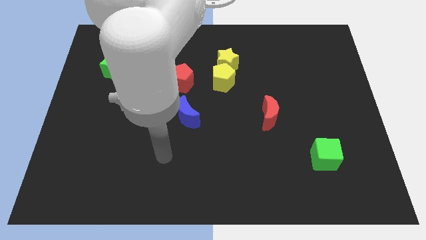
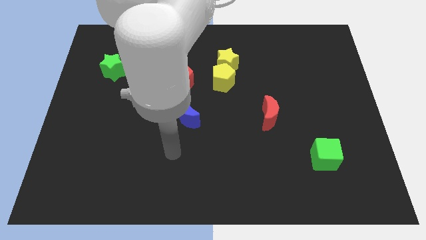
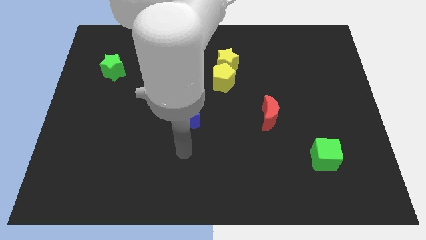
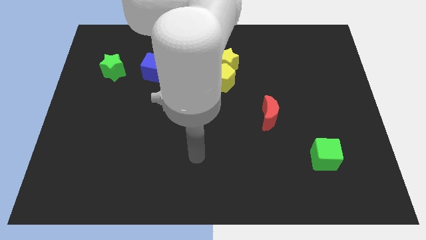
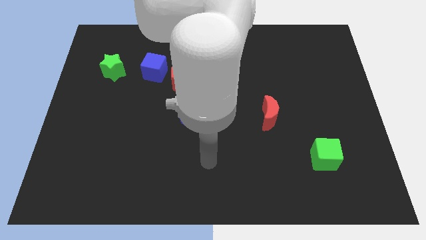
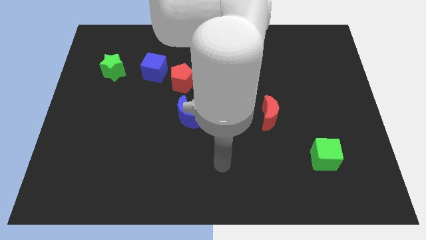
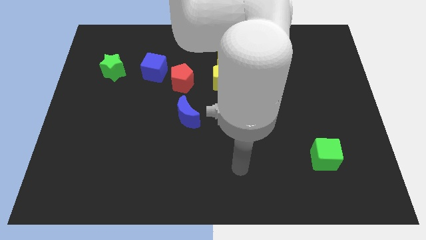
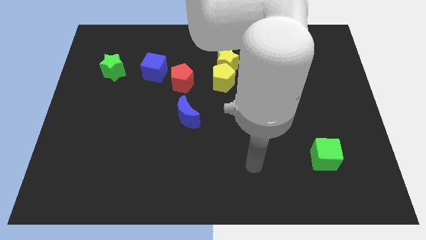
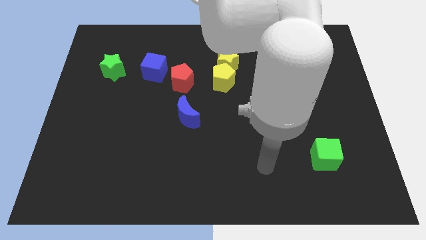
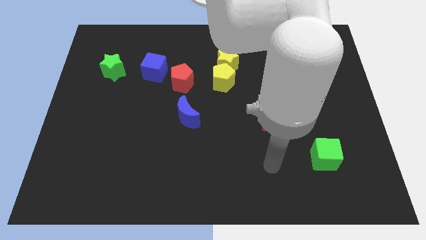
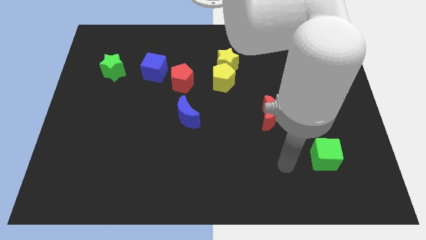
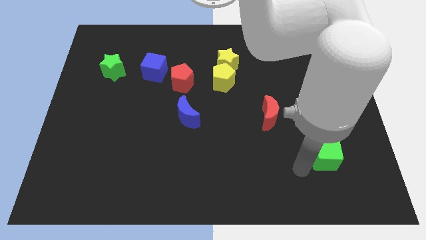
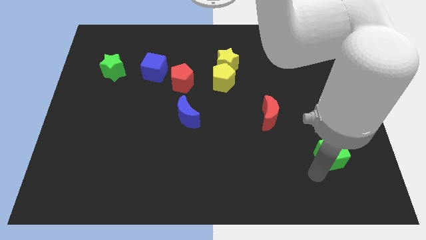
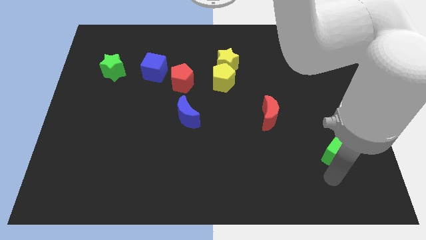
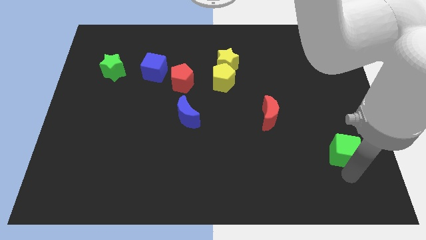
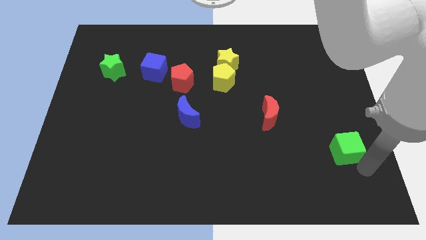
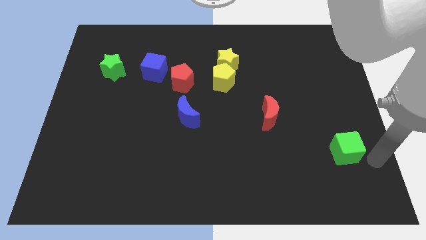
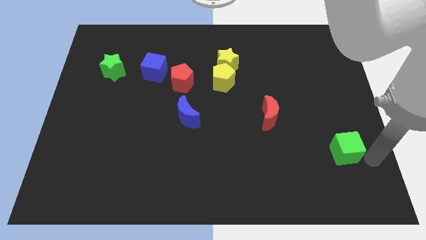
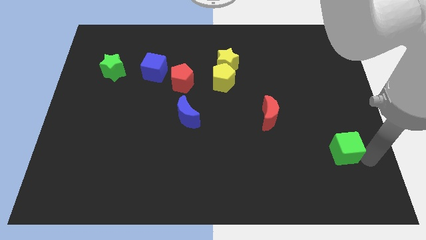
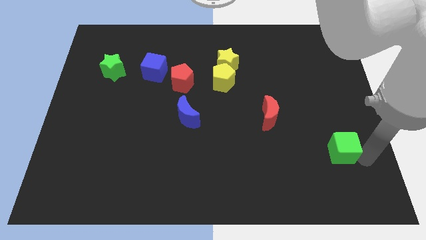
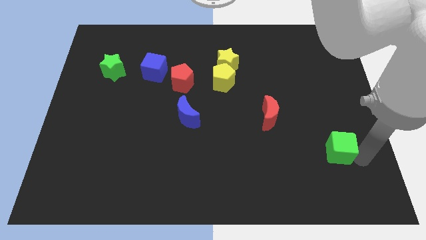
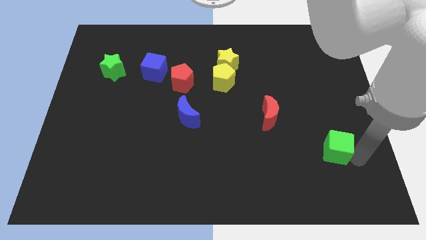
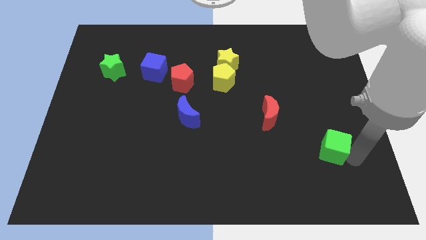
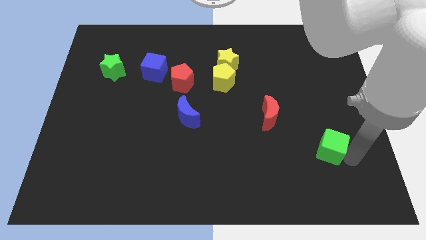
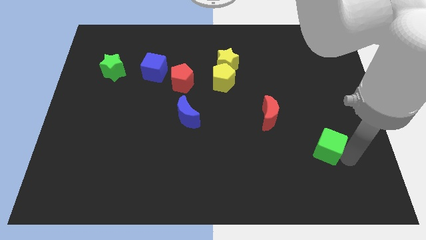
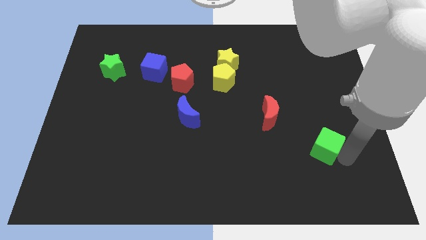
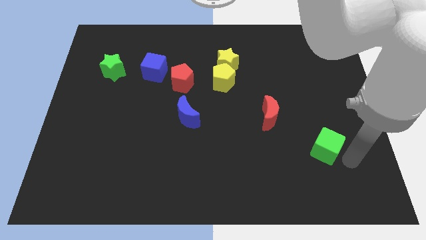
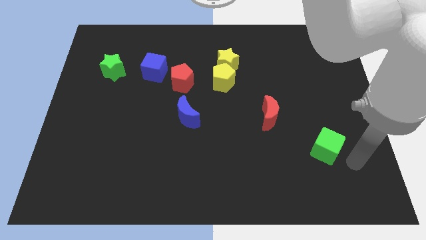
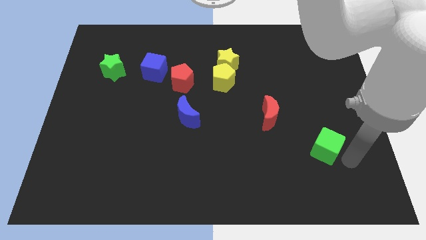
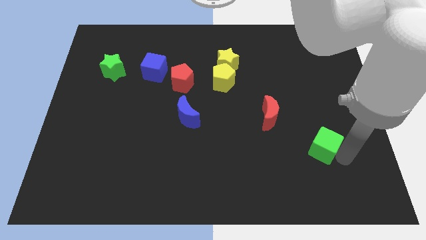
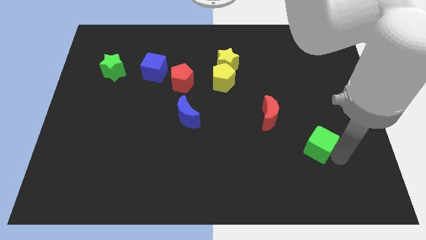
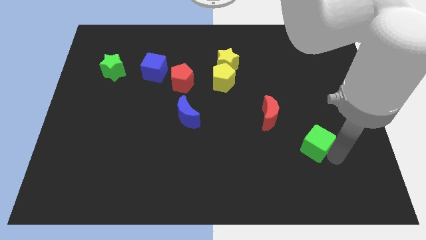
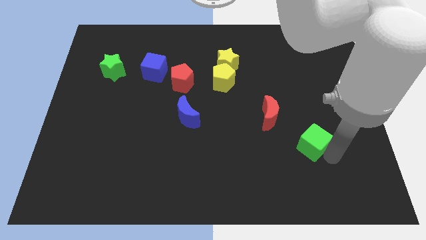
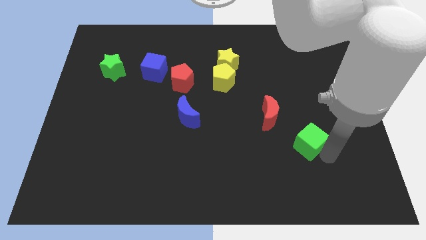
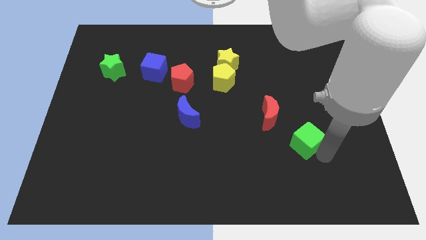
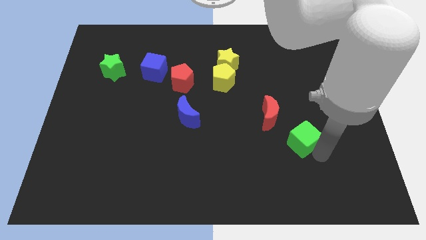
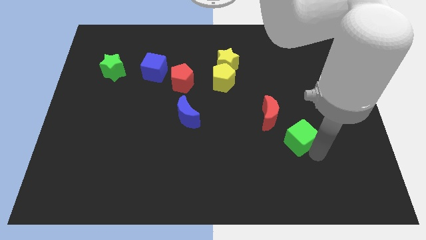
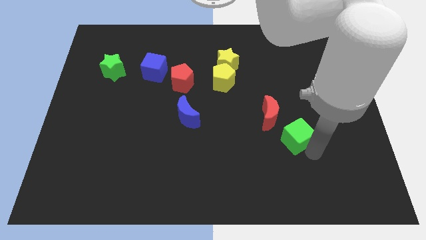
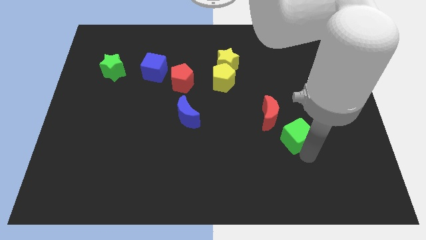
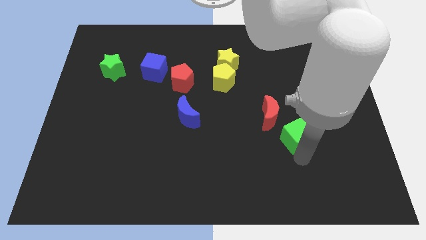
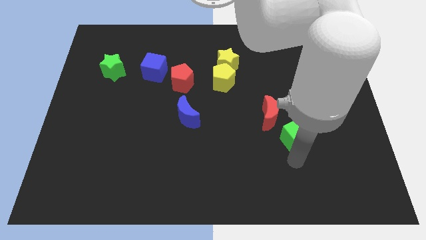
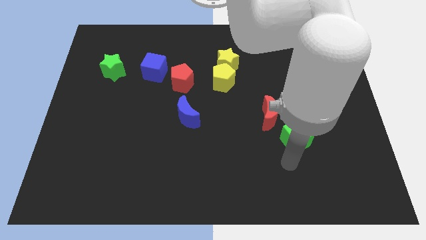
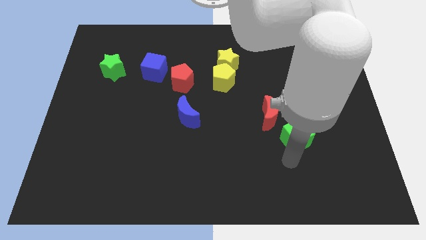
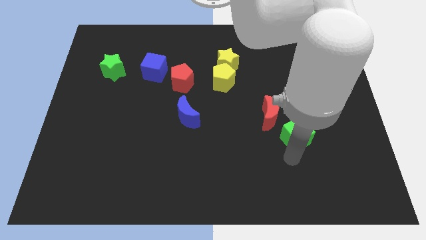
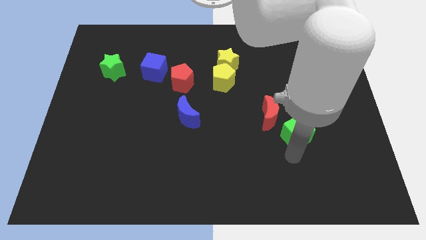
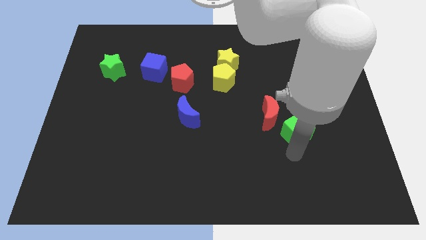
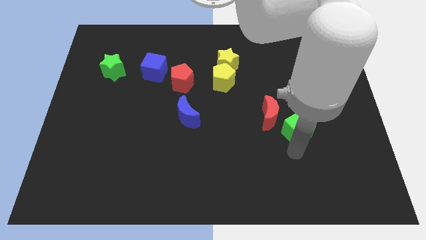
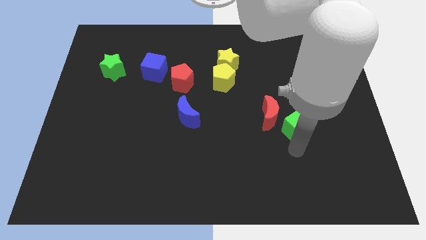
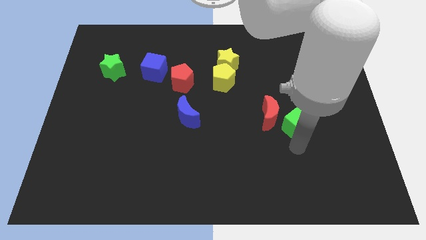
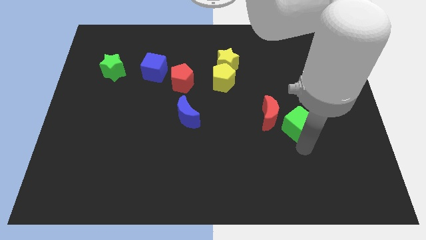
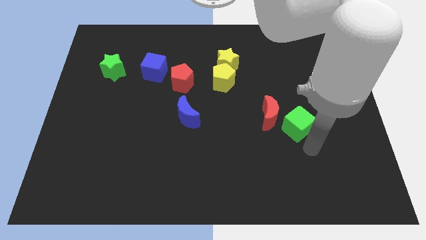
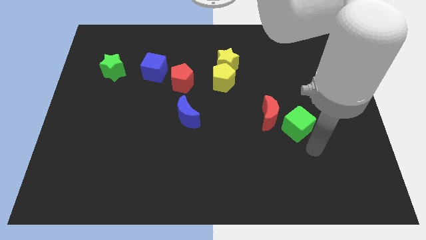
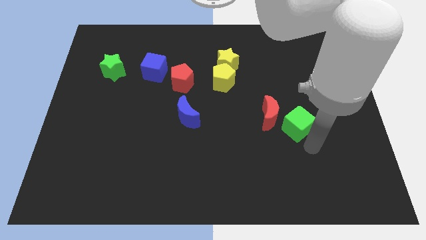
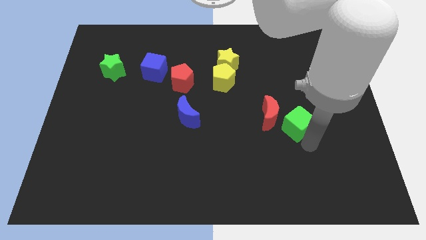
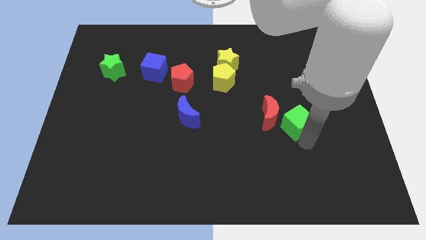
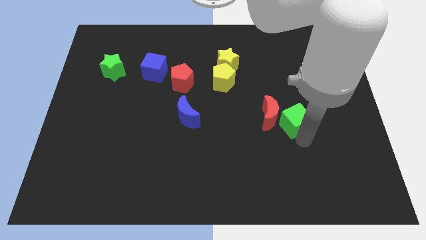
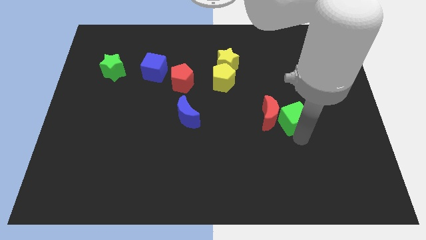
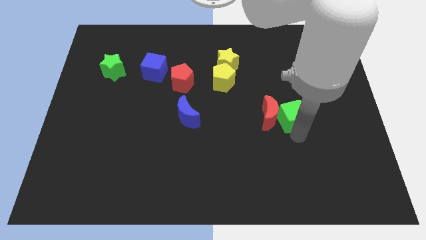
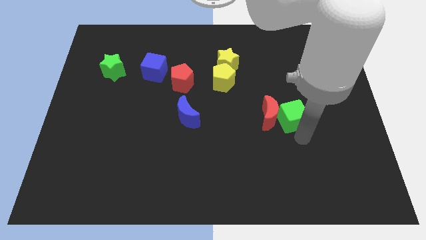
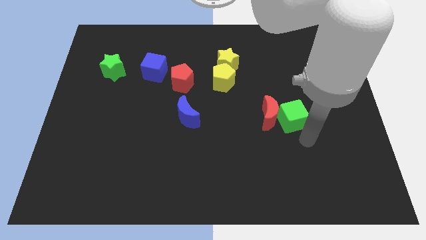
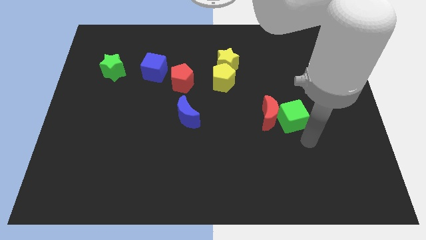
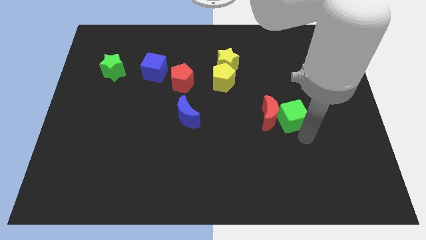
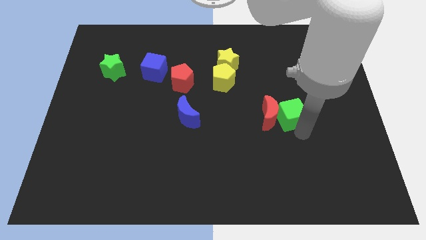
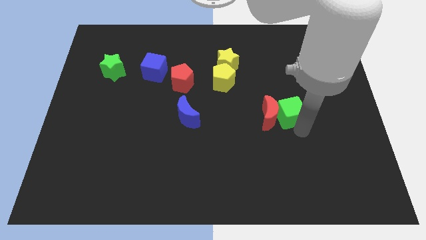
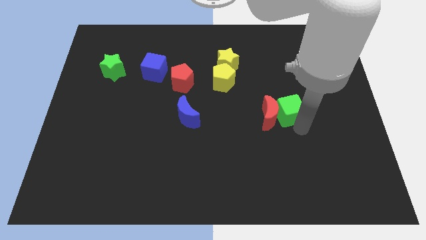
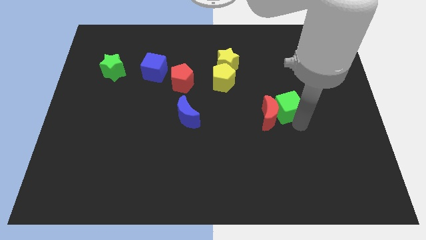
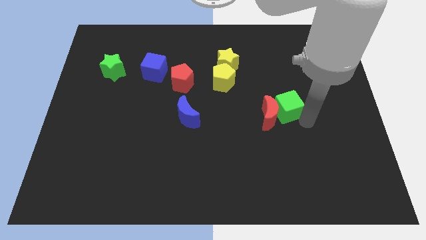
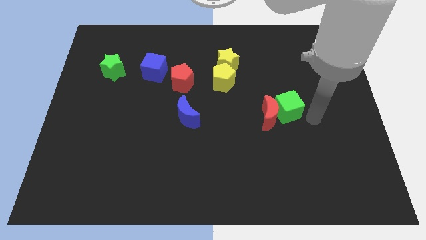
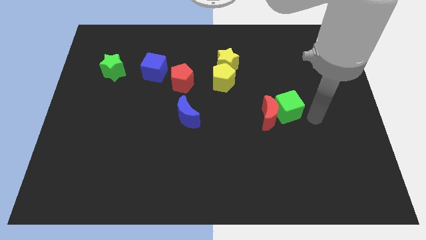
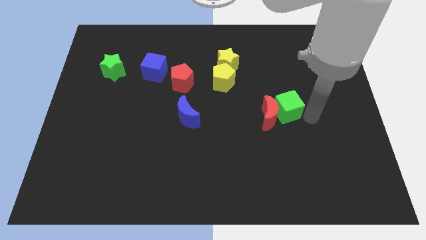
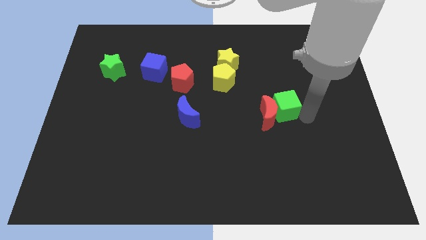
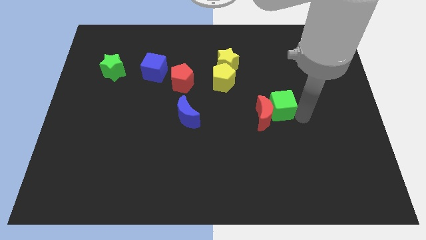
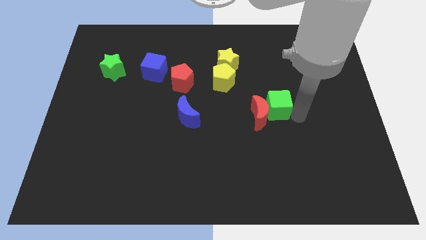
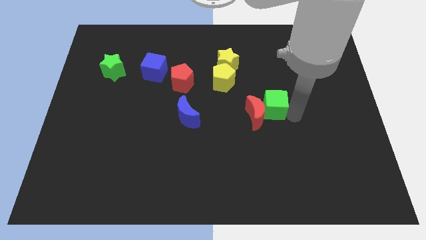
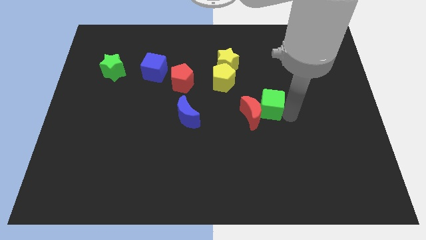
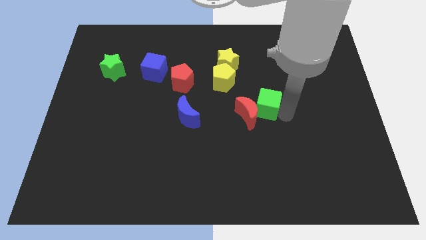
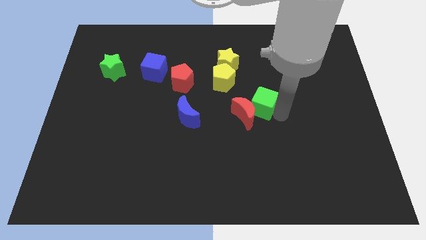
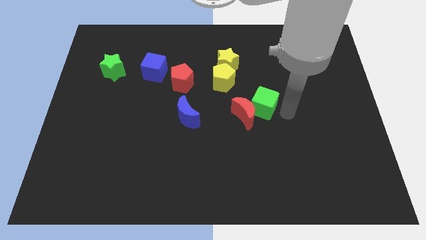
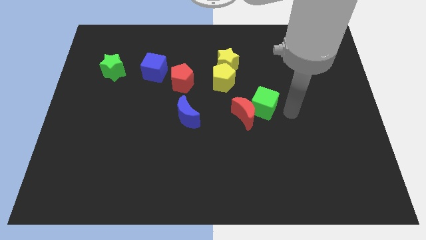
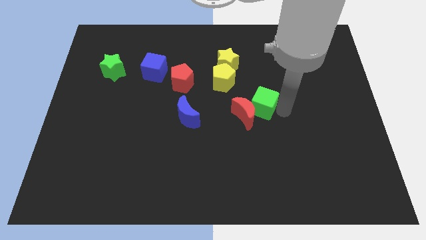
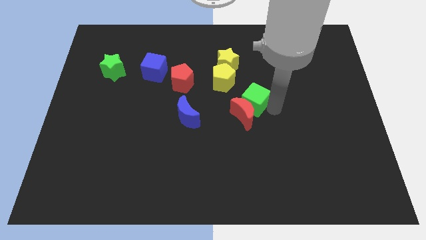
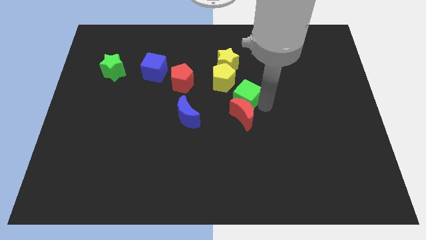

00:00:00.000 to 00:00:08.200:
put the green cube to the top left side of the red moon
